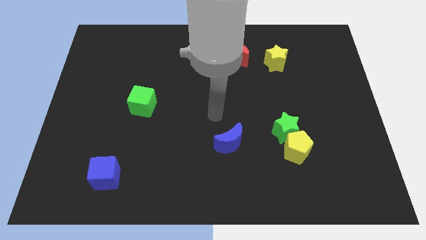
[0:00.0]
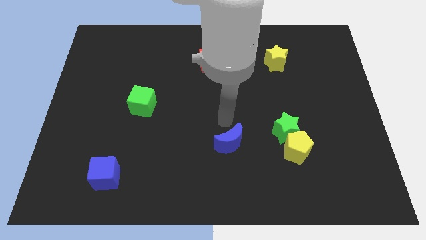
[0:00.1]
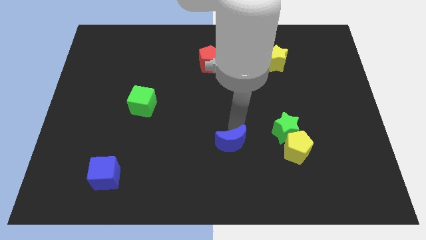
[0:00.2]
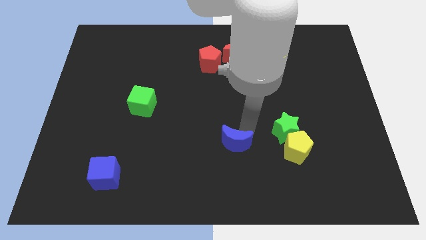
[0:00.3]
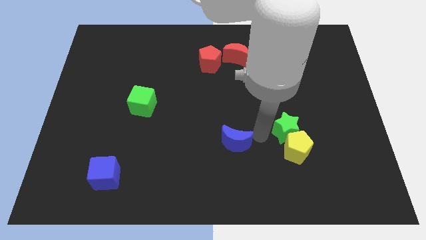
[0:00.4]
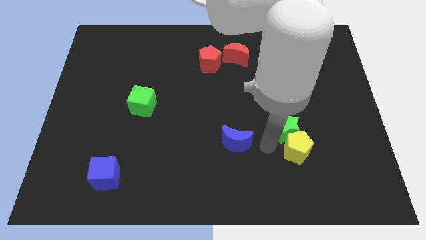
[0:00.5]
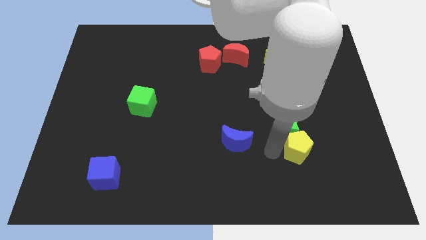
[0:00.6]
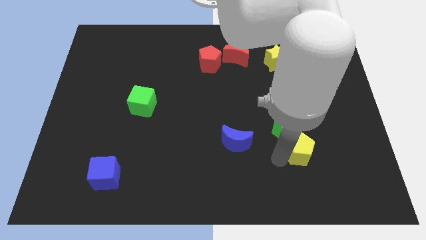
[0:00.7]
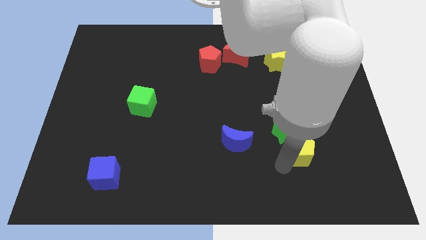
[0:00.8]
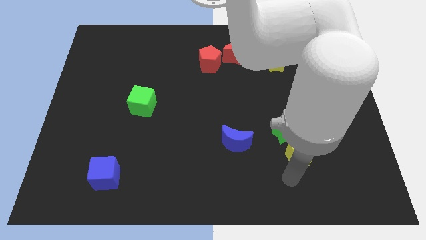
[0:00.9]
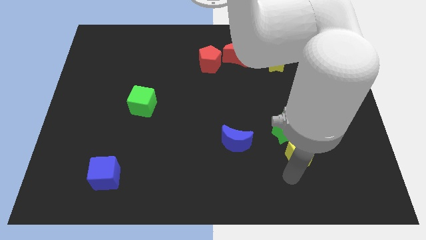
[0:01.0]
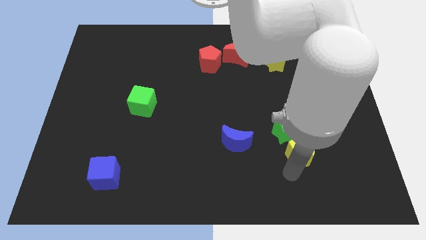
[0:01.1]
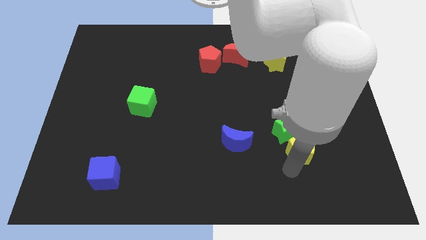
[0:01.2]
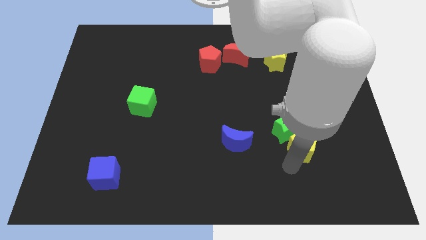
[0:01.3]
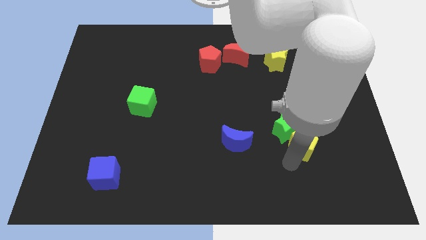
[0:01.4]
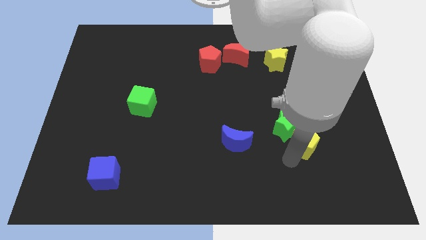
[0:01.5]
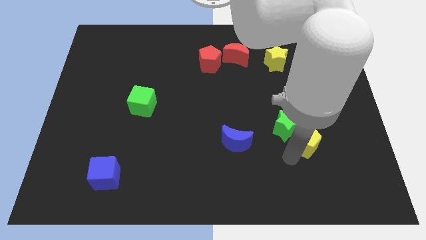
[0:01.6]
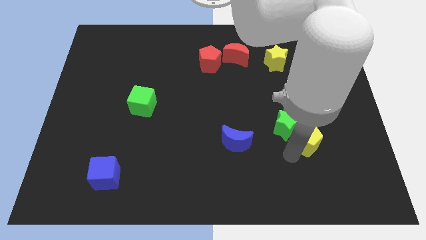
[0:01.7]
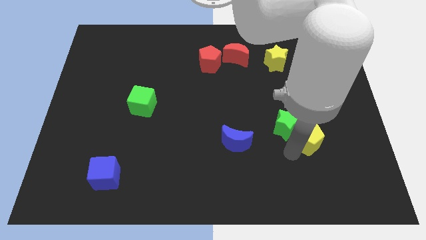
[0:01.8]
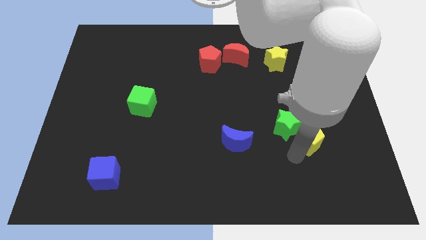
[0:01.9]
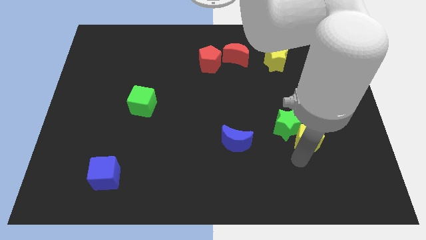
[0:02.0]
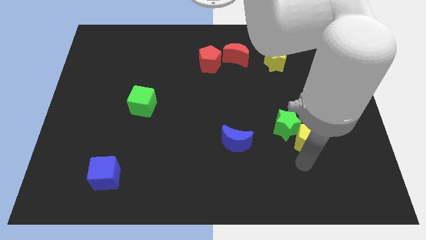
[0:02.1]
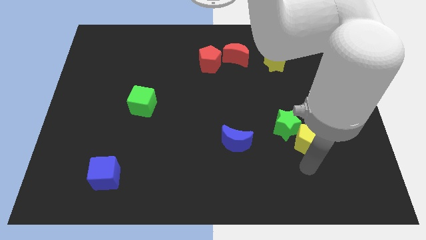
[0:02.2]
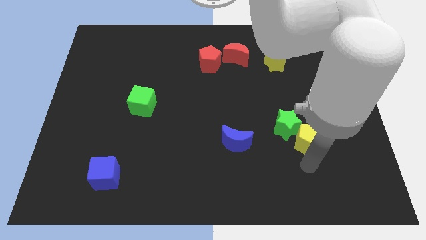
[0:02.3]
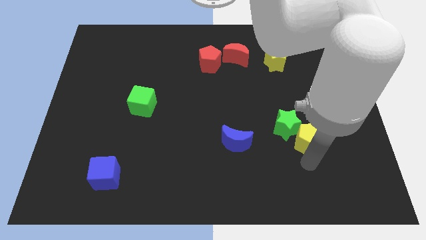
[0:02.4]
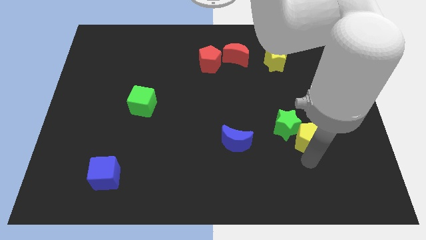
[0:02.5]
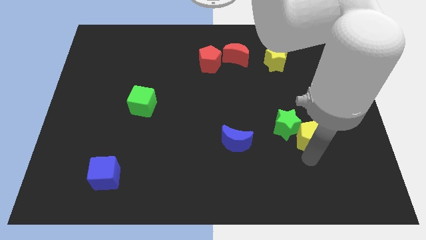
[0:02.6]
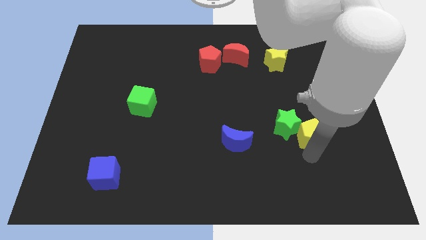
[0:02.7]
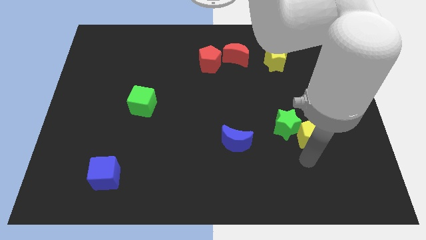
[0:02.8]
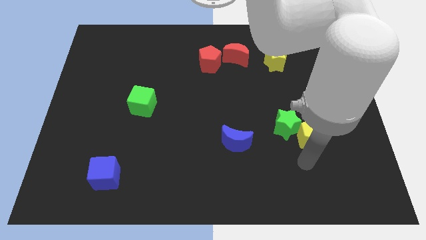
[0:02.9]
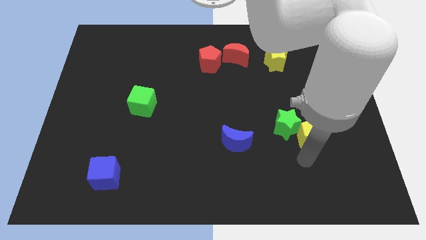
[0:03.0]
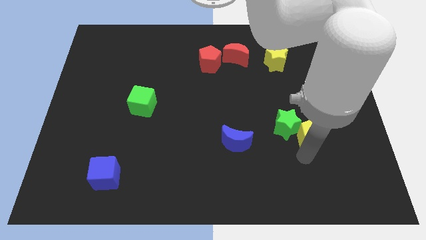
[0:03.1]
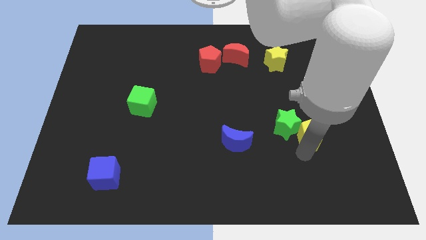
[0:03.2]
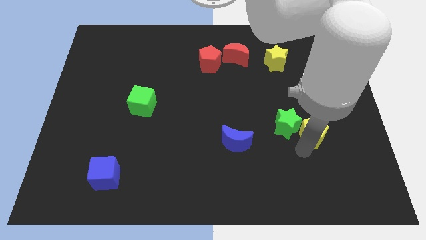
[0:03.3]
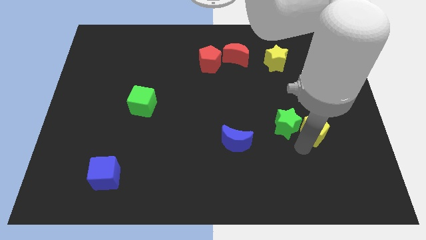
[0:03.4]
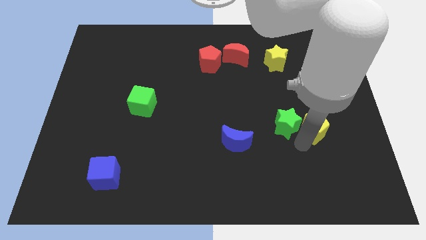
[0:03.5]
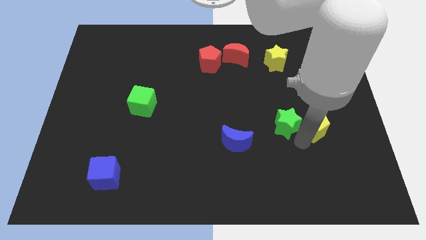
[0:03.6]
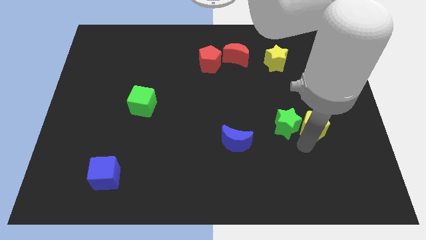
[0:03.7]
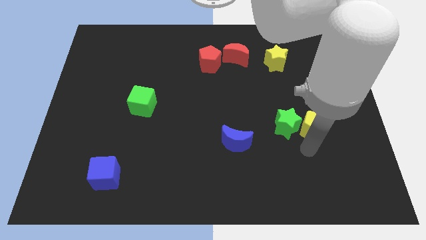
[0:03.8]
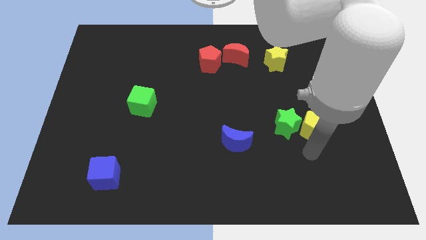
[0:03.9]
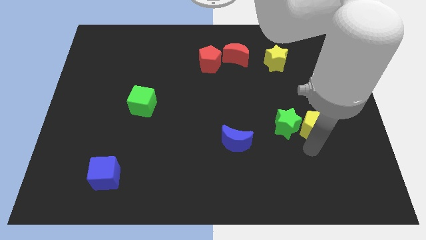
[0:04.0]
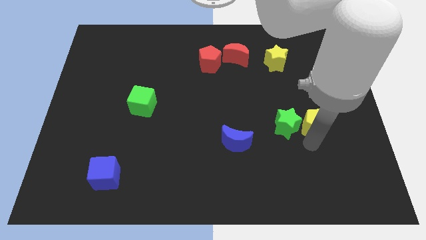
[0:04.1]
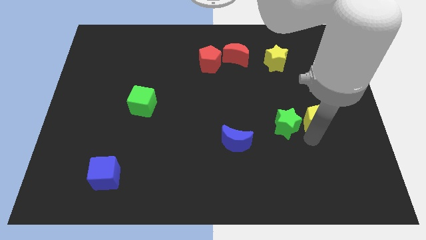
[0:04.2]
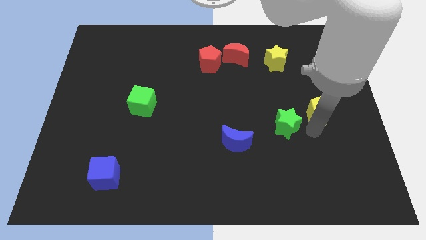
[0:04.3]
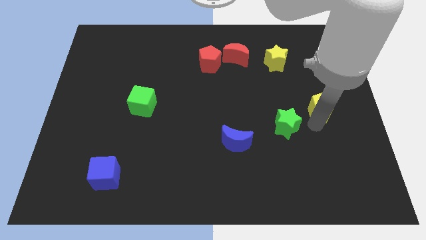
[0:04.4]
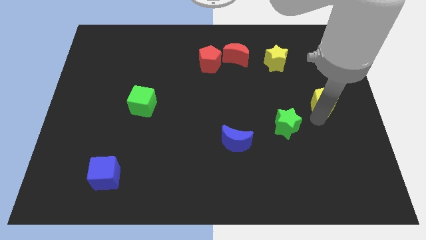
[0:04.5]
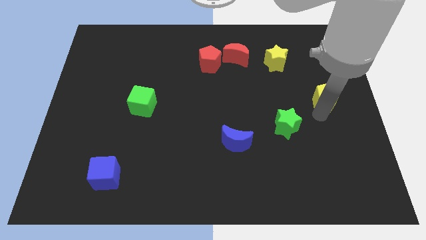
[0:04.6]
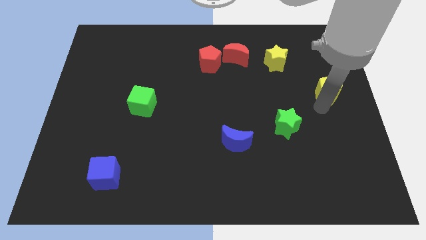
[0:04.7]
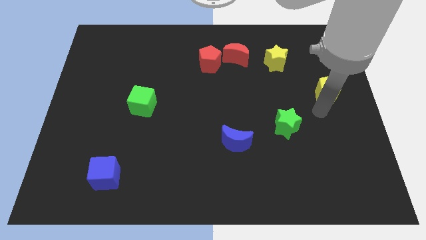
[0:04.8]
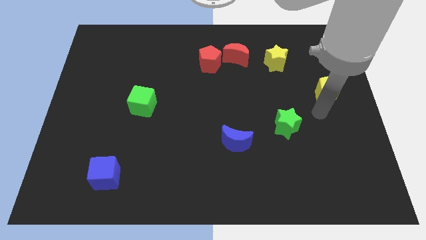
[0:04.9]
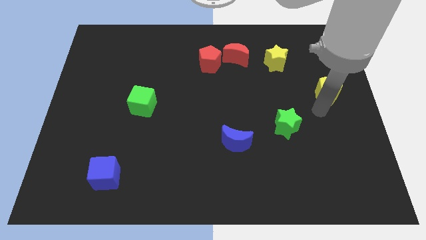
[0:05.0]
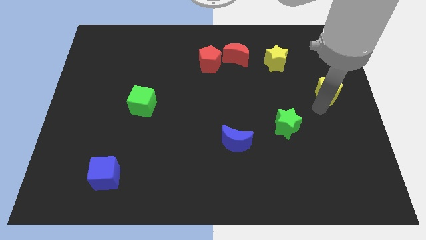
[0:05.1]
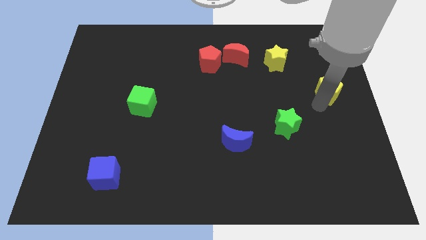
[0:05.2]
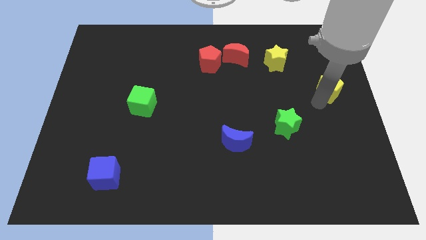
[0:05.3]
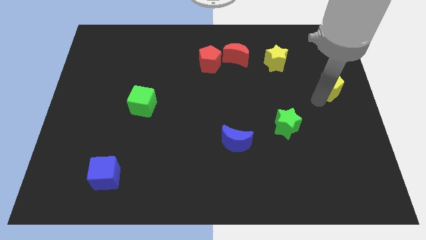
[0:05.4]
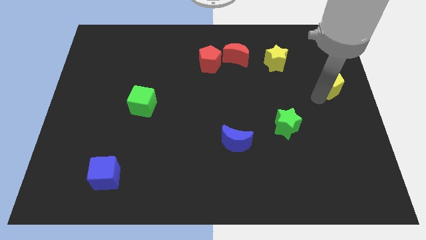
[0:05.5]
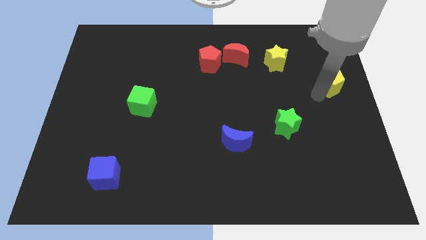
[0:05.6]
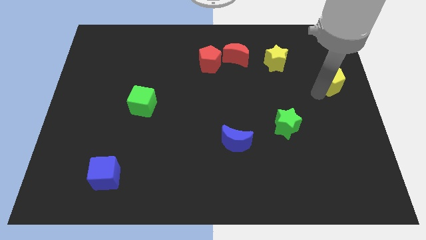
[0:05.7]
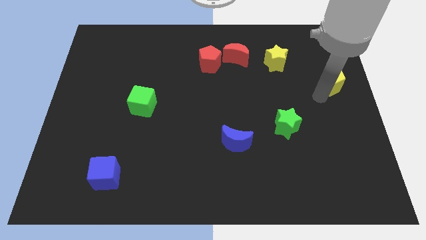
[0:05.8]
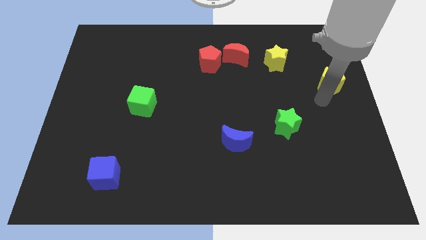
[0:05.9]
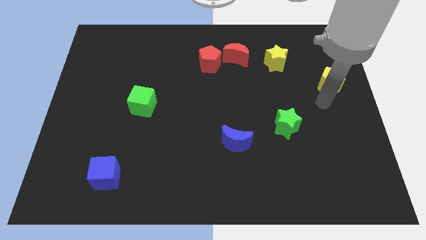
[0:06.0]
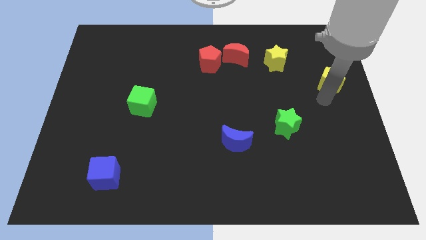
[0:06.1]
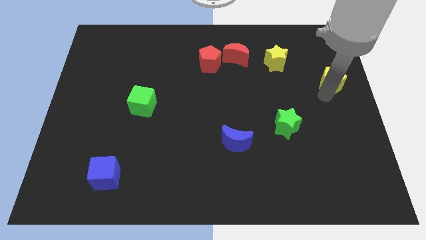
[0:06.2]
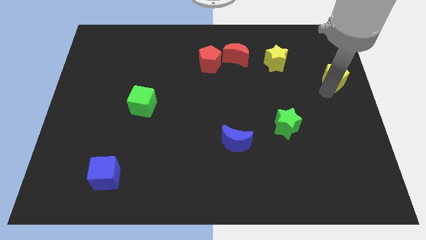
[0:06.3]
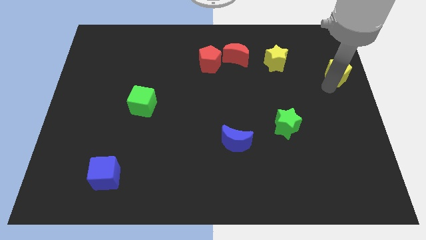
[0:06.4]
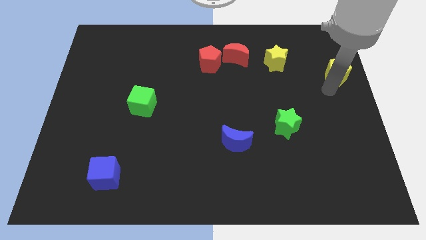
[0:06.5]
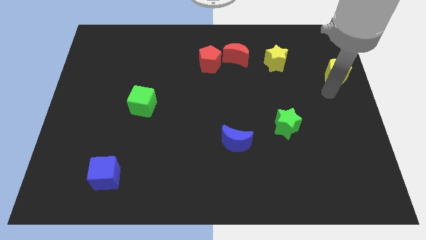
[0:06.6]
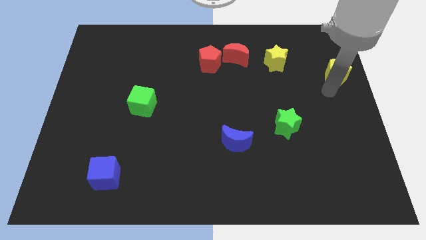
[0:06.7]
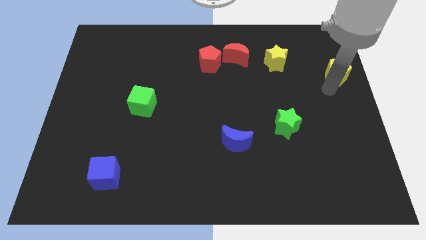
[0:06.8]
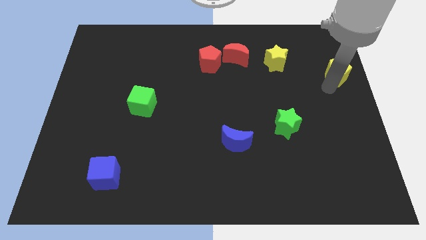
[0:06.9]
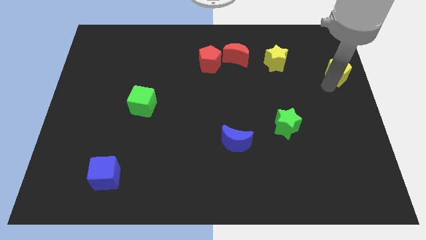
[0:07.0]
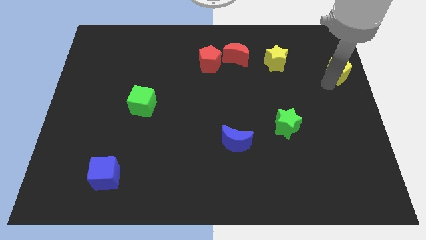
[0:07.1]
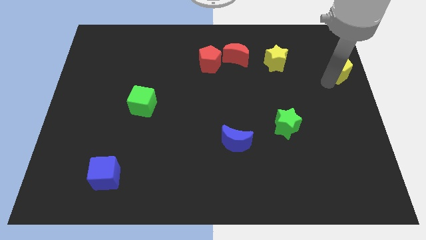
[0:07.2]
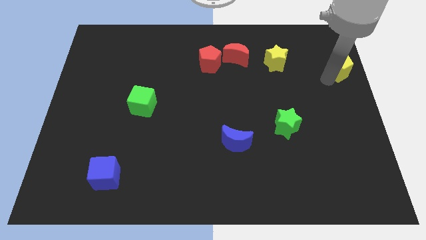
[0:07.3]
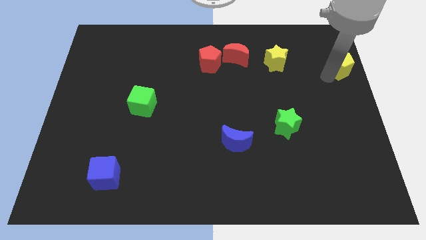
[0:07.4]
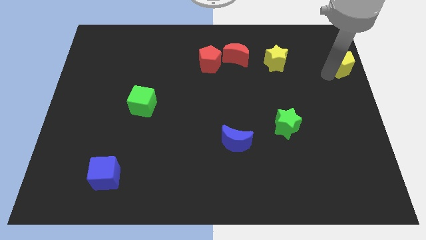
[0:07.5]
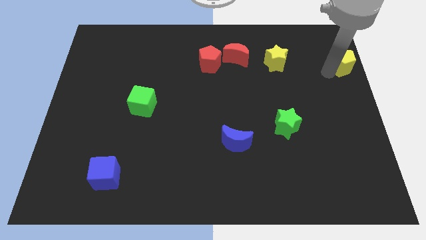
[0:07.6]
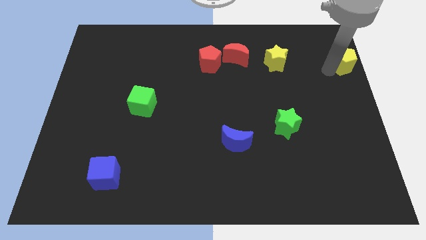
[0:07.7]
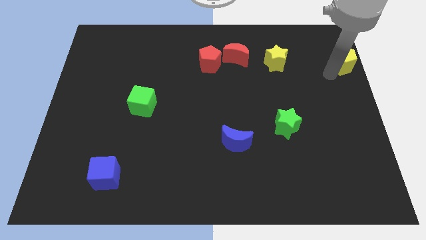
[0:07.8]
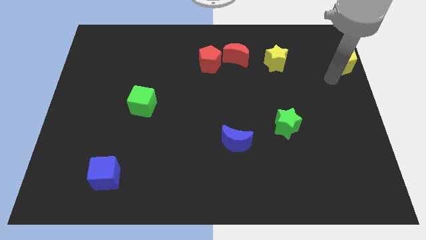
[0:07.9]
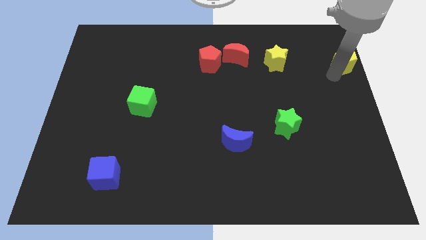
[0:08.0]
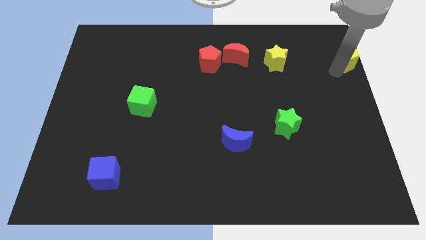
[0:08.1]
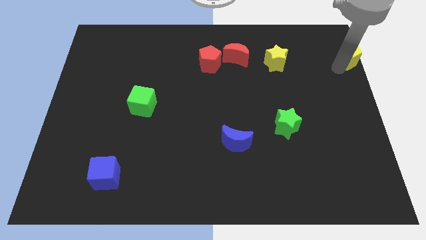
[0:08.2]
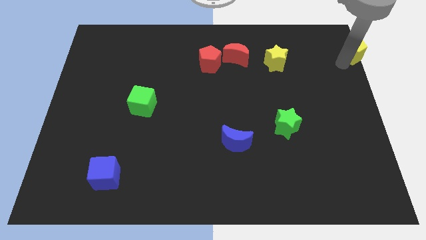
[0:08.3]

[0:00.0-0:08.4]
slide the yellow pentagon to the top right
